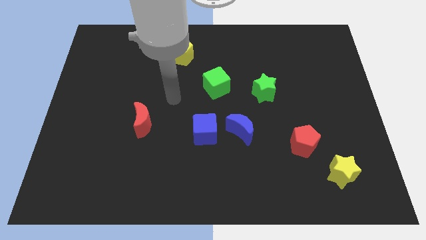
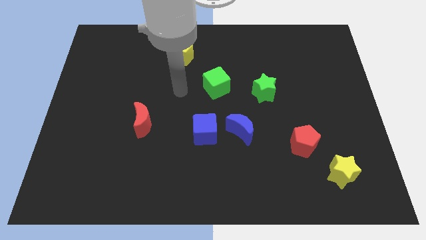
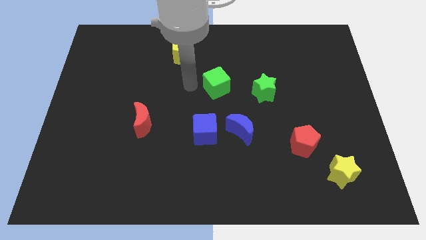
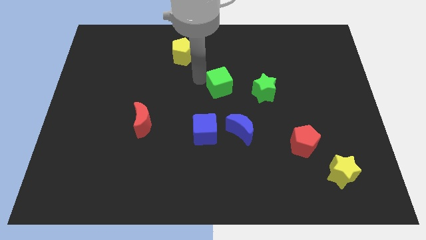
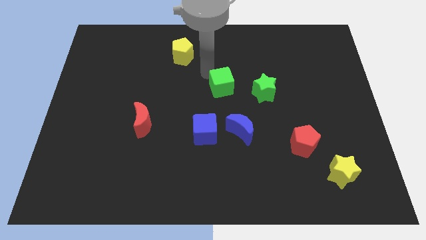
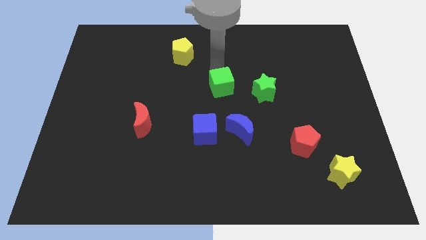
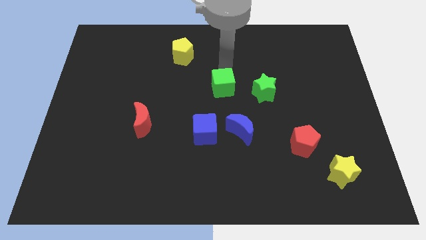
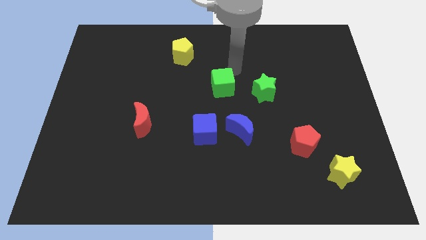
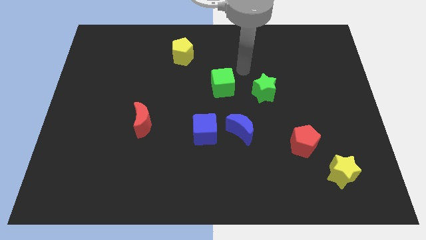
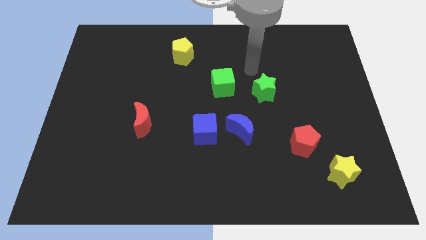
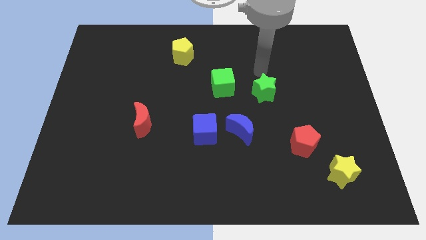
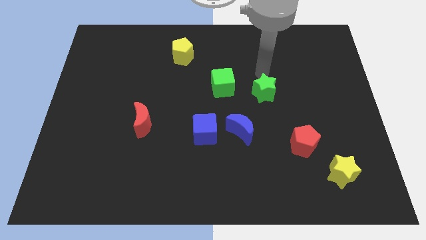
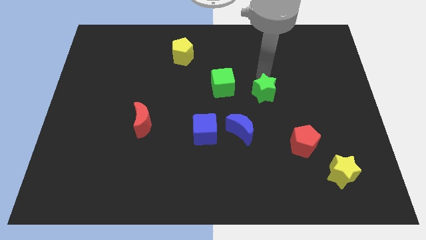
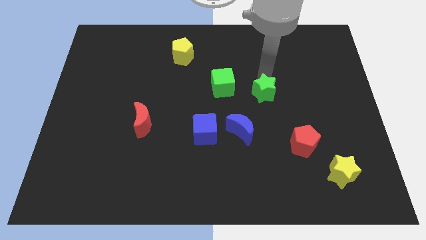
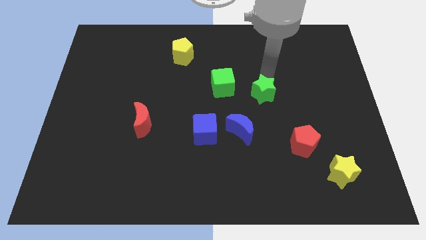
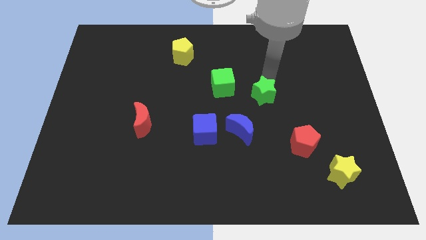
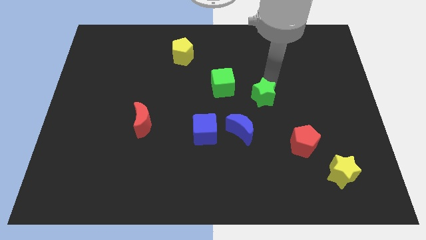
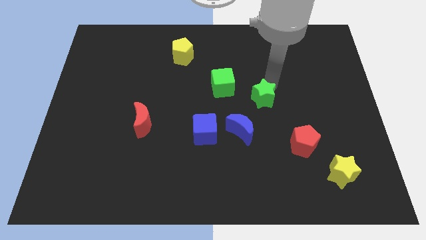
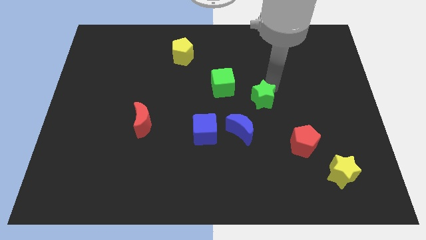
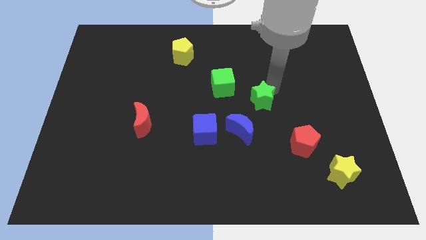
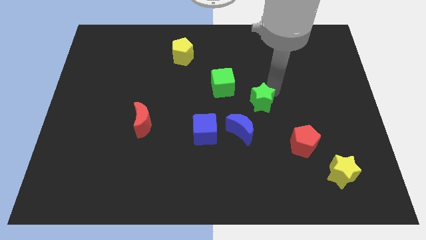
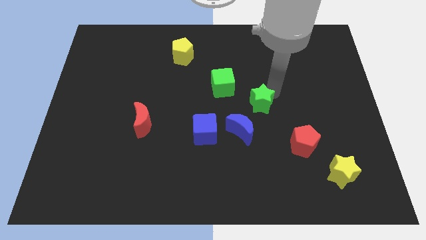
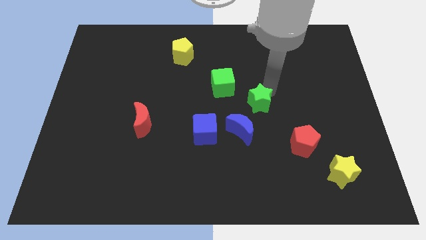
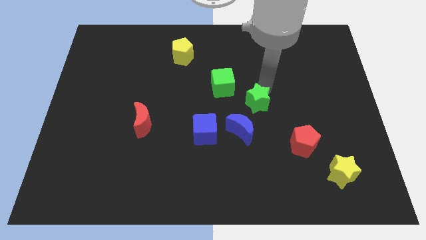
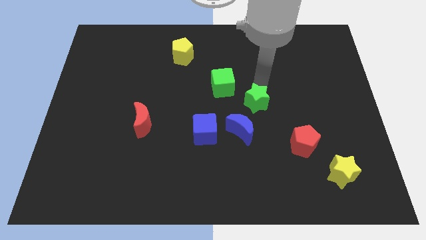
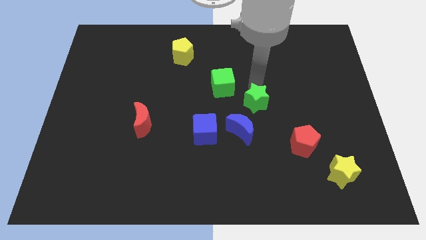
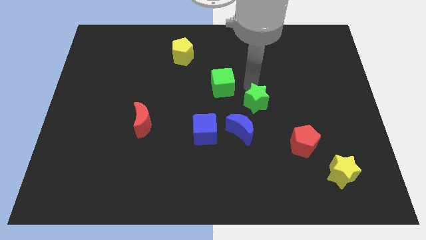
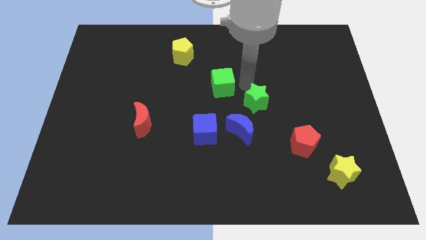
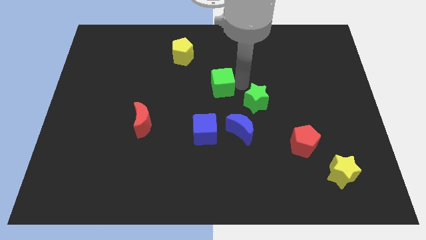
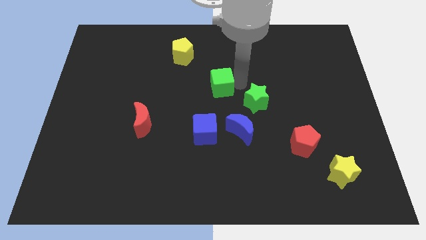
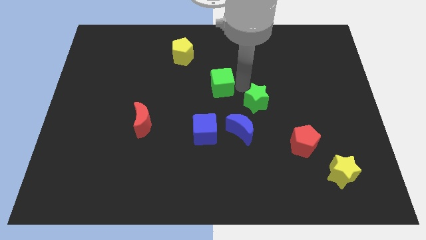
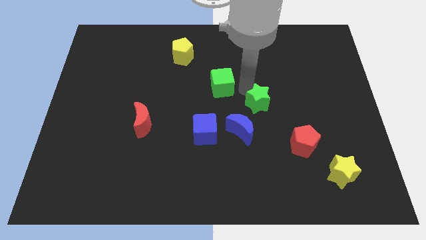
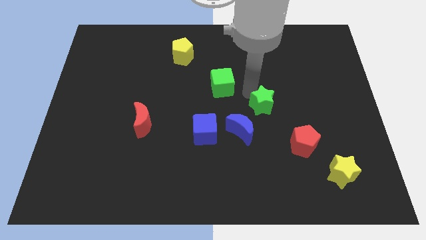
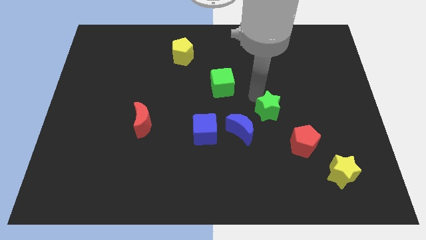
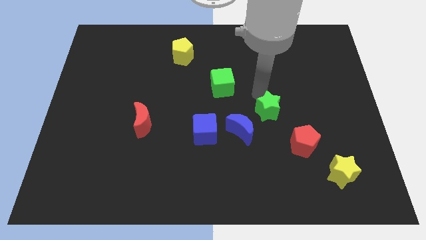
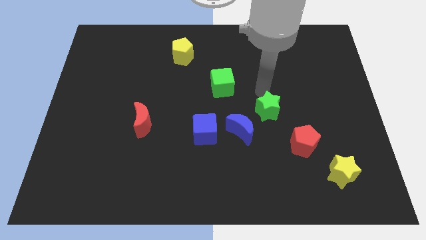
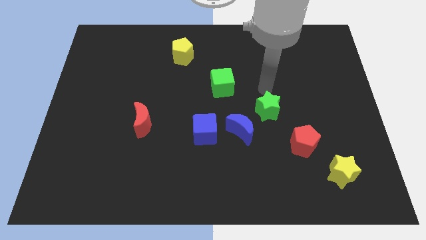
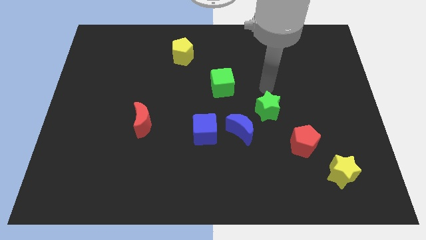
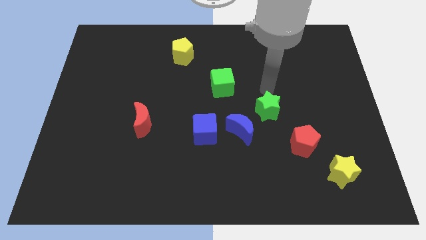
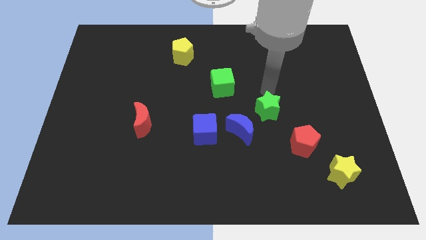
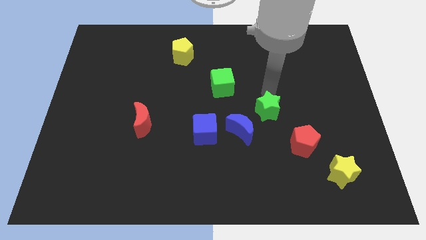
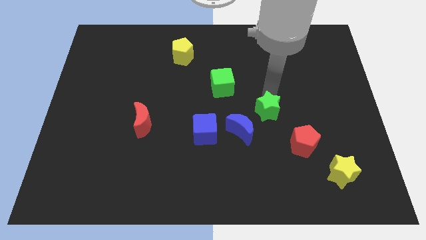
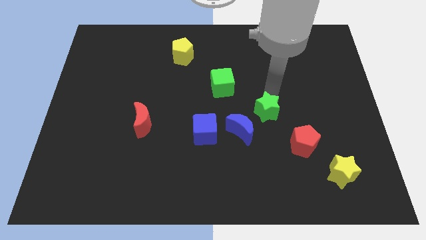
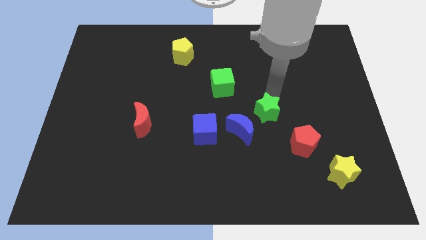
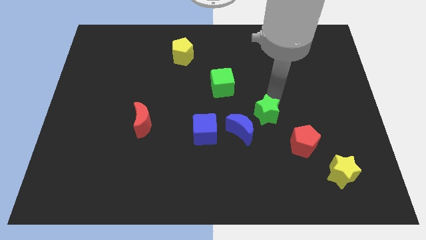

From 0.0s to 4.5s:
slightly slide the green star down

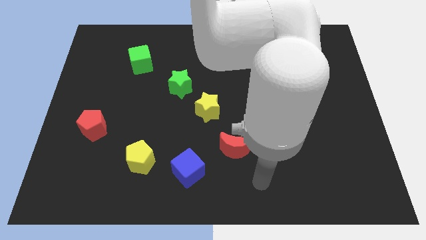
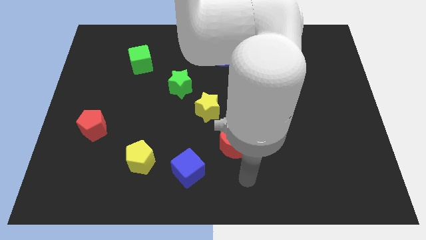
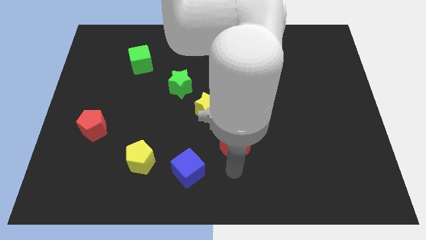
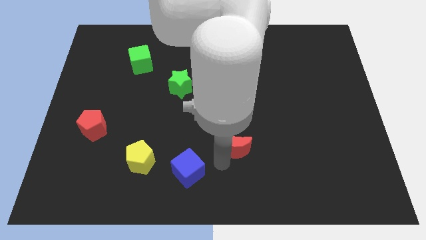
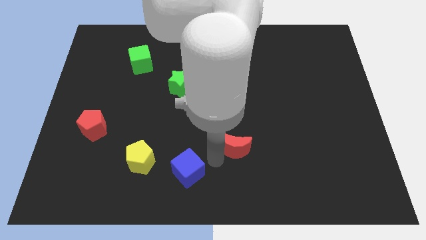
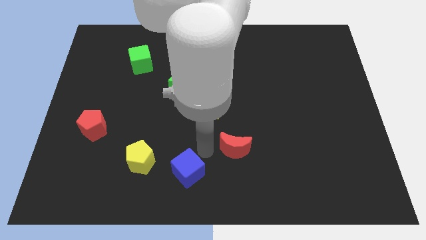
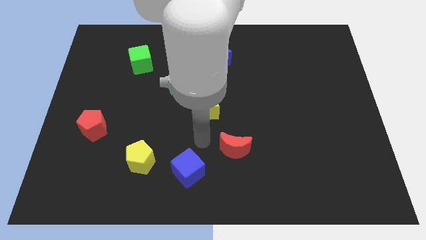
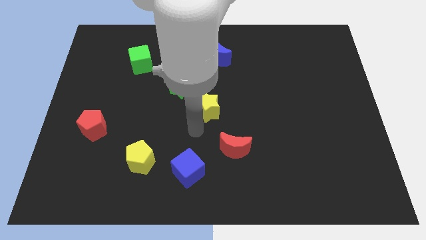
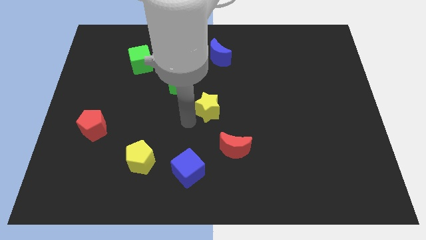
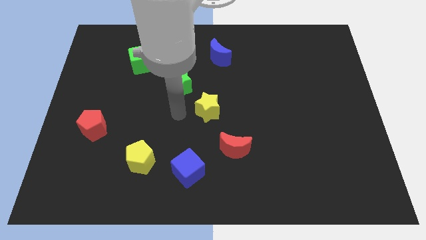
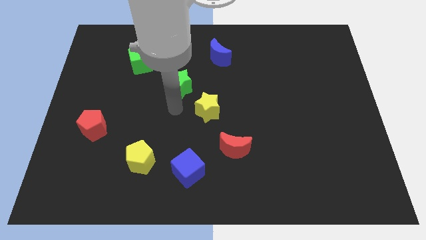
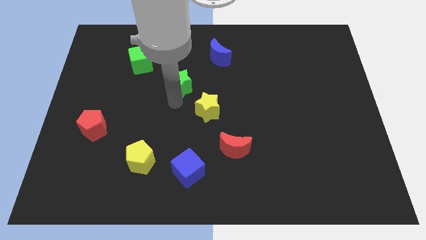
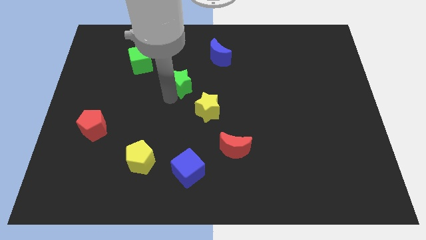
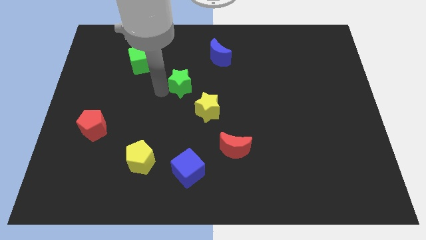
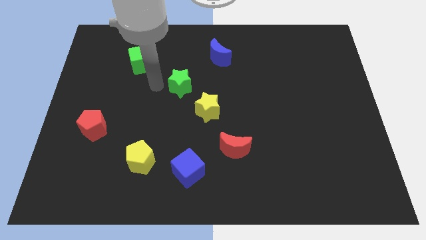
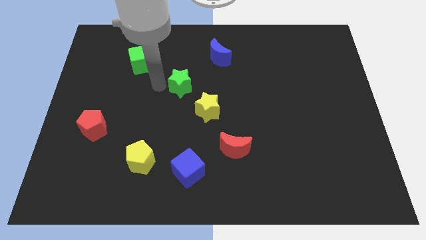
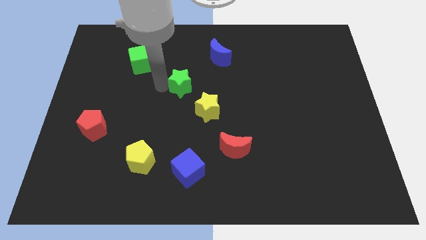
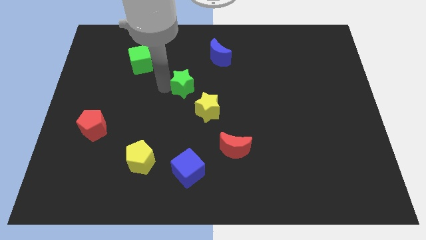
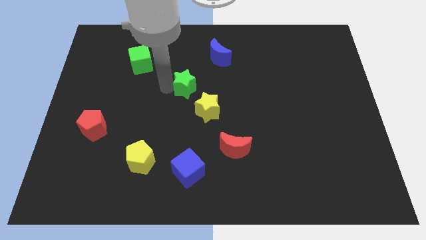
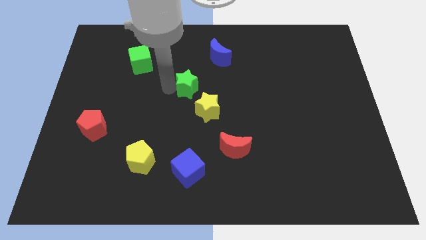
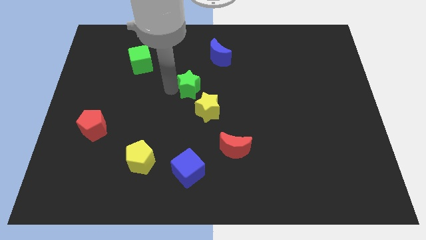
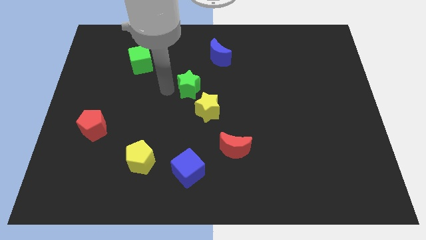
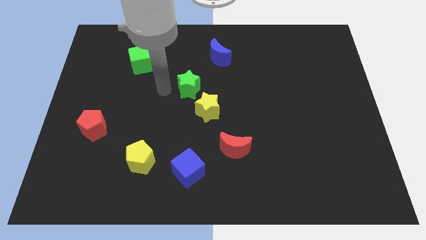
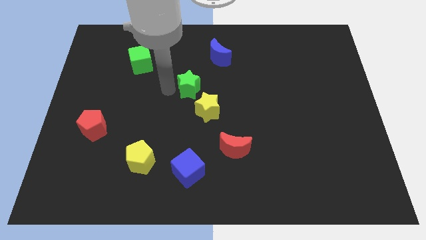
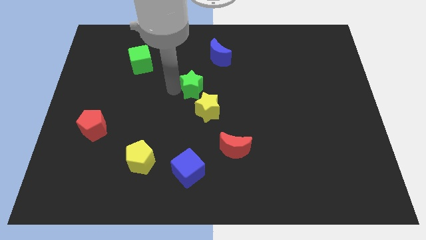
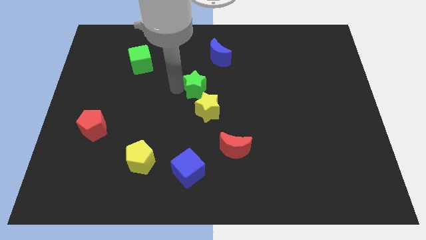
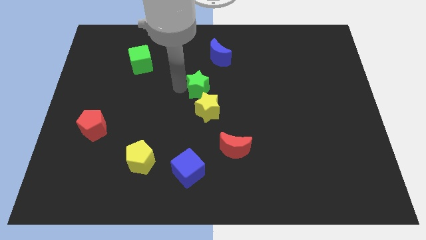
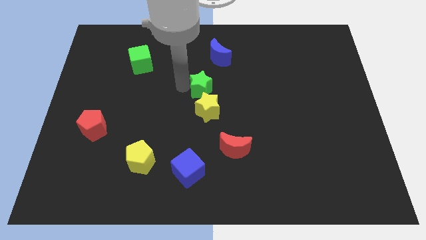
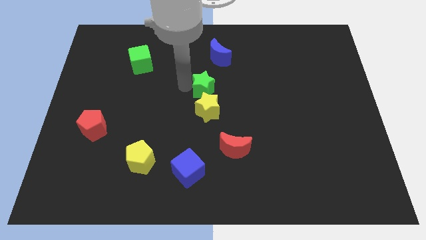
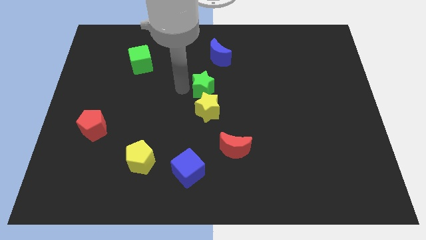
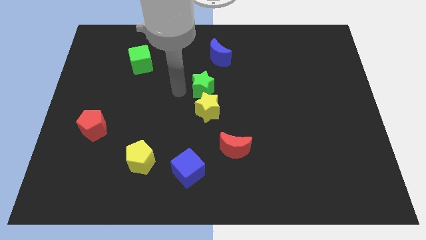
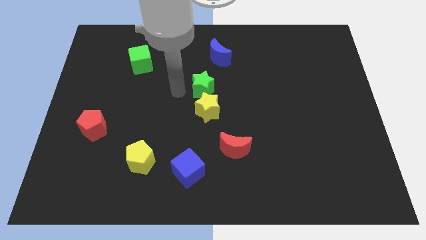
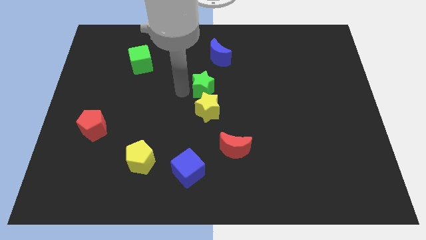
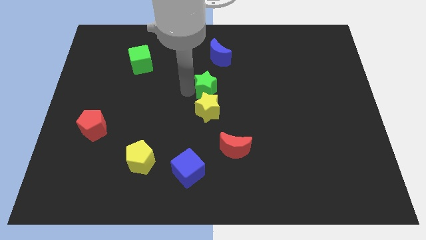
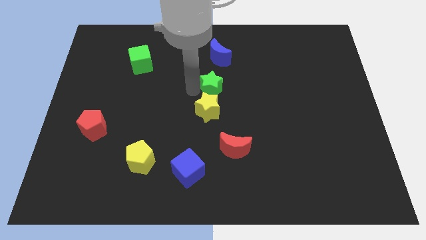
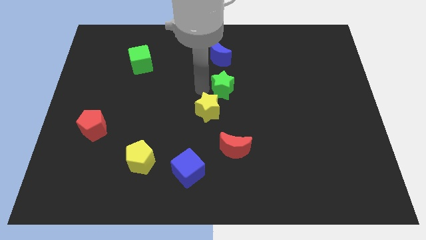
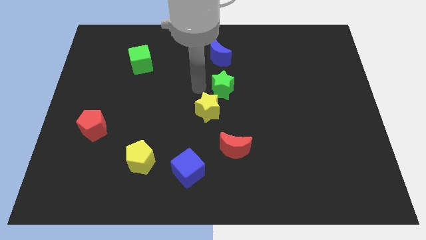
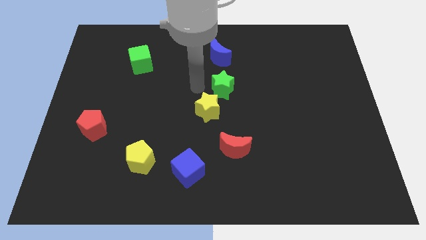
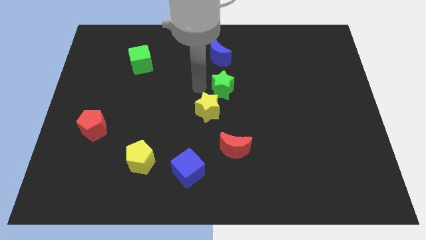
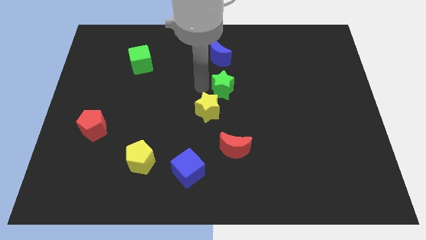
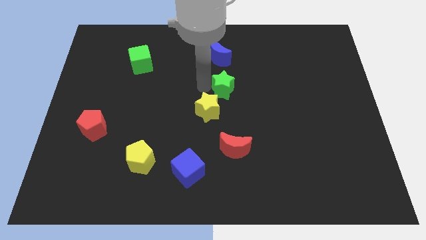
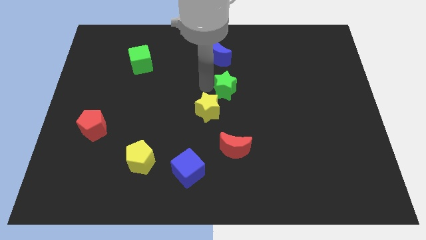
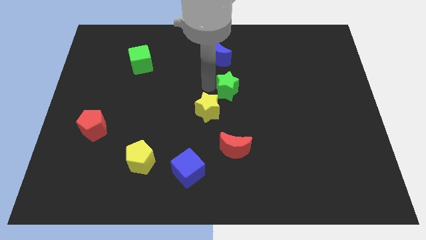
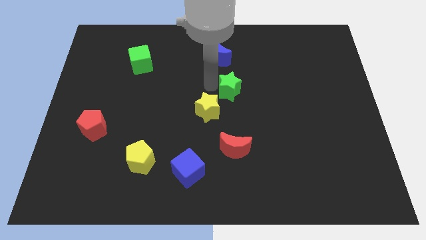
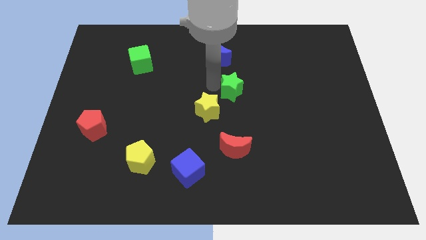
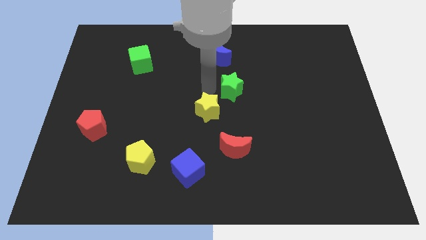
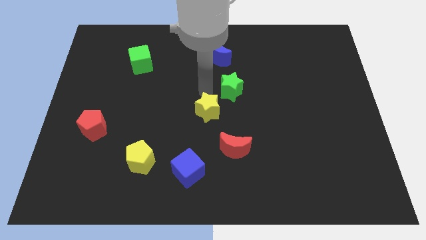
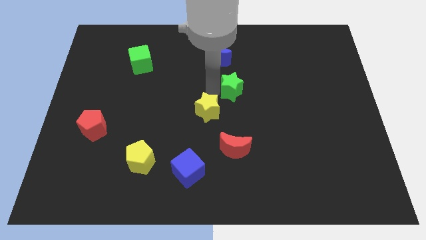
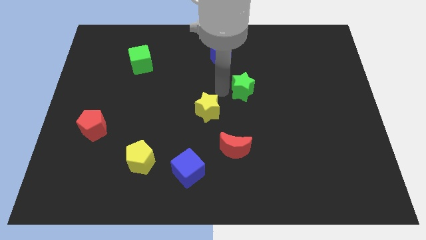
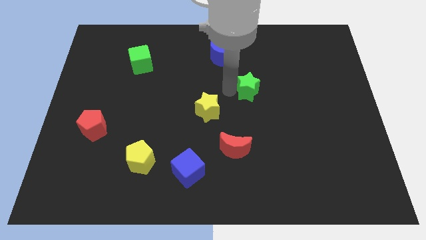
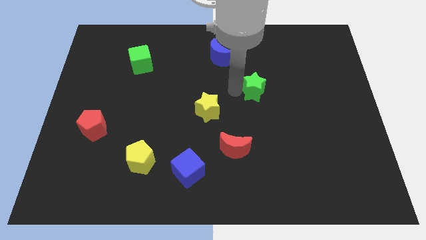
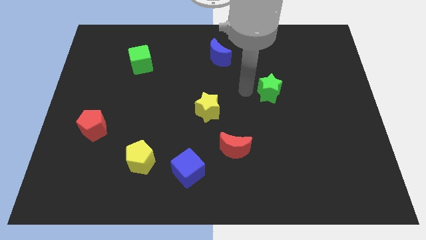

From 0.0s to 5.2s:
move the green star to the right
